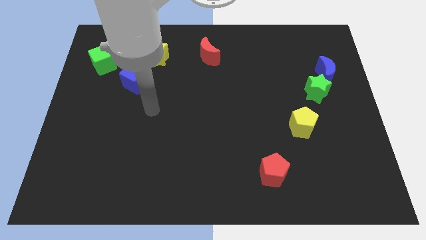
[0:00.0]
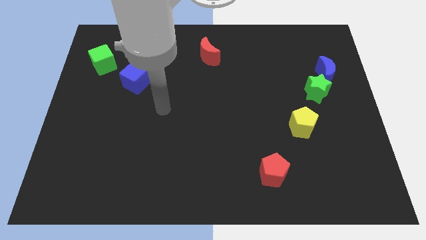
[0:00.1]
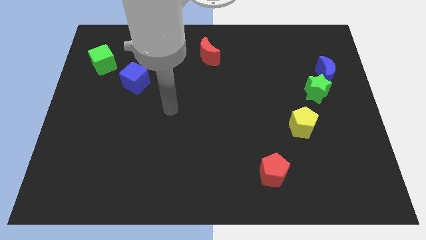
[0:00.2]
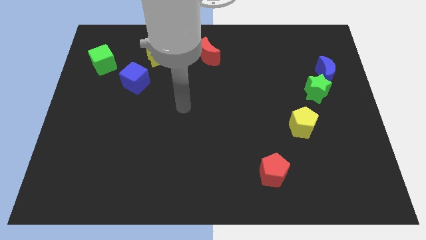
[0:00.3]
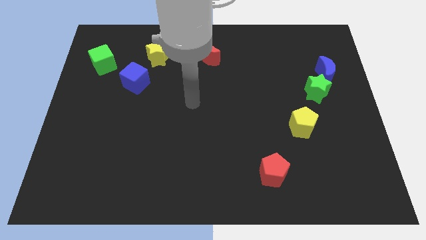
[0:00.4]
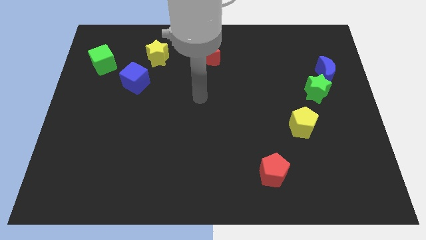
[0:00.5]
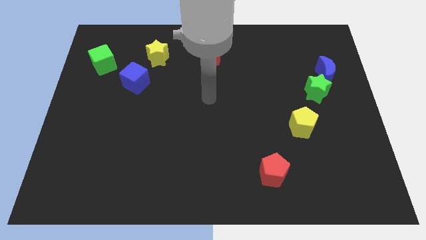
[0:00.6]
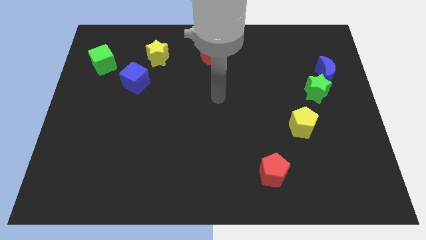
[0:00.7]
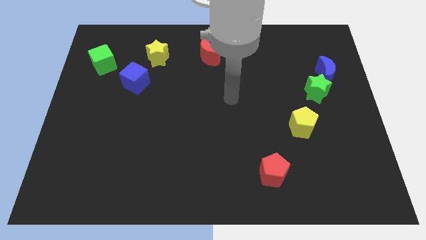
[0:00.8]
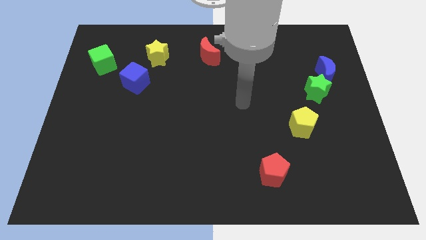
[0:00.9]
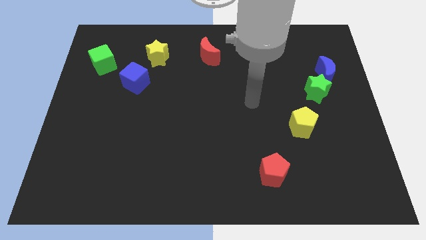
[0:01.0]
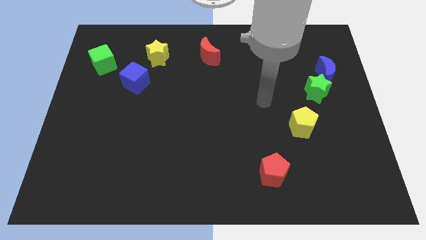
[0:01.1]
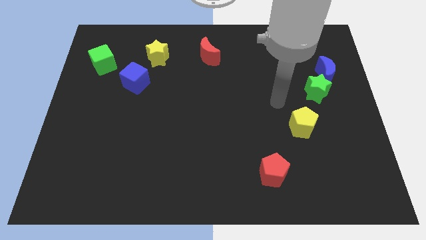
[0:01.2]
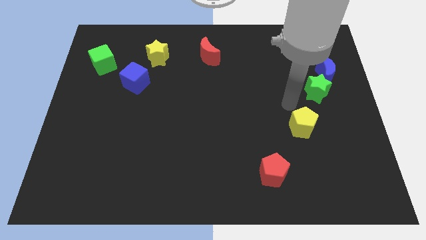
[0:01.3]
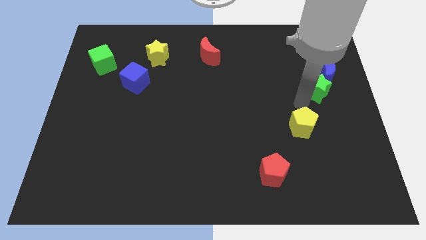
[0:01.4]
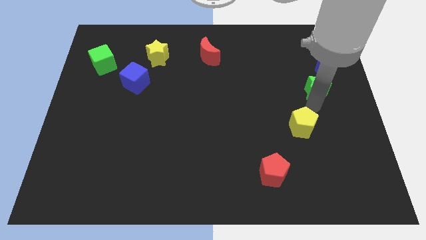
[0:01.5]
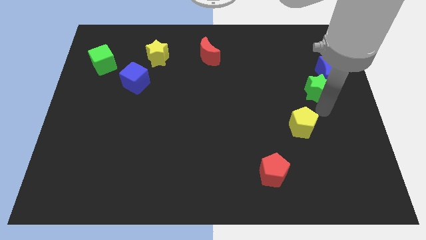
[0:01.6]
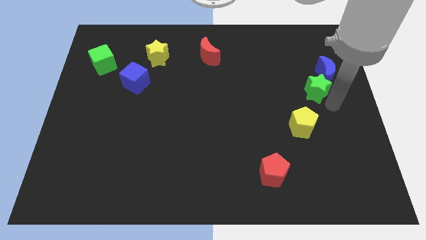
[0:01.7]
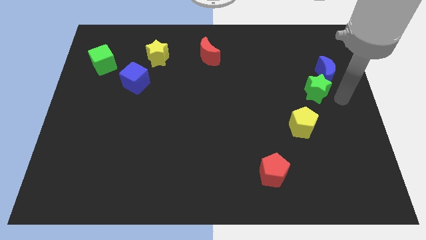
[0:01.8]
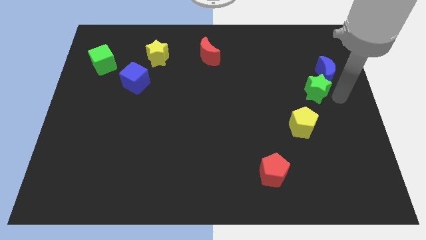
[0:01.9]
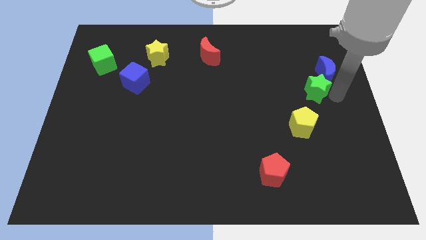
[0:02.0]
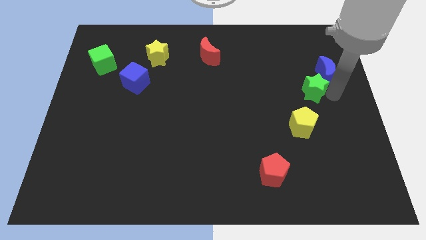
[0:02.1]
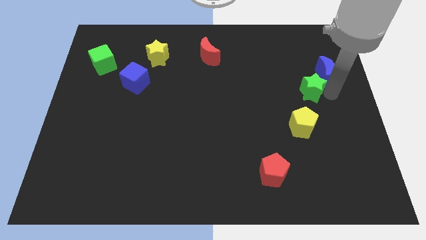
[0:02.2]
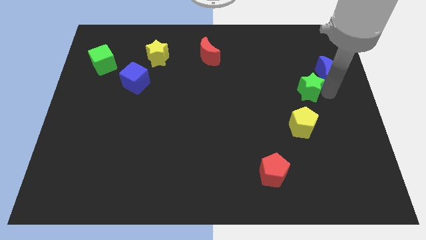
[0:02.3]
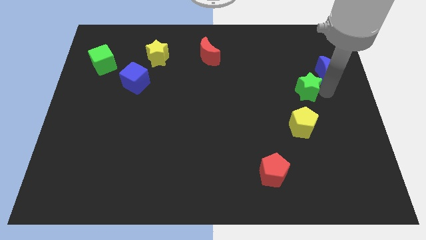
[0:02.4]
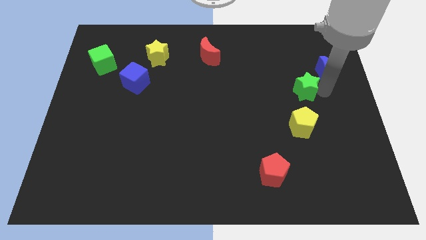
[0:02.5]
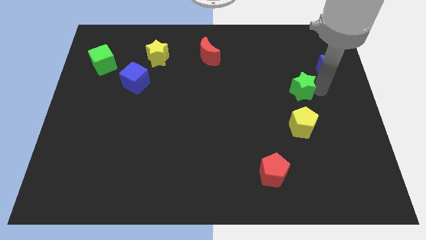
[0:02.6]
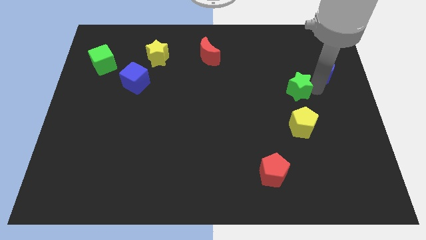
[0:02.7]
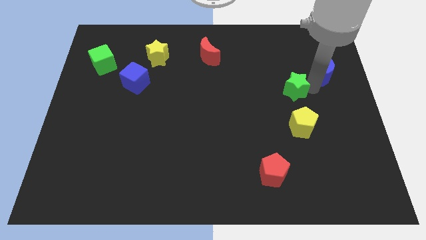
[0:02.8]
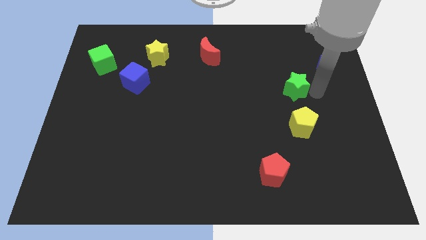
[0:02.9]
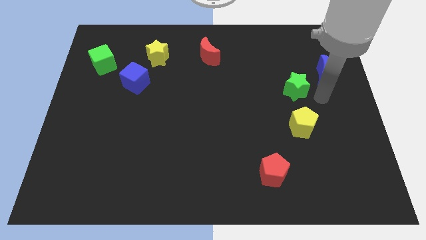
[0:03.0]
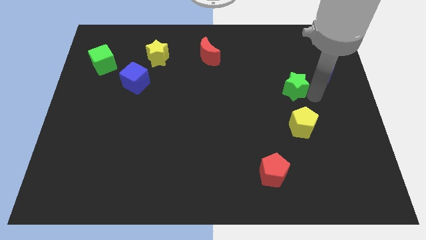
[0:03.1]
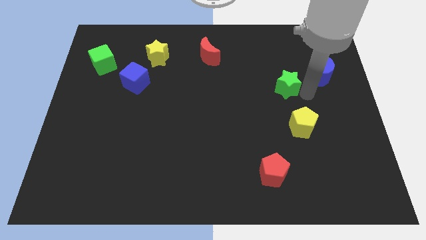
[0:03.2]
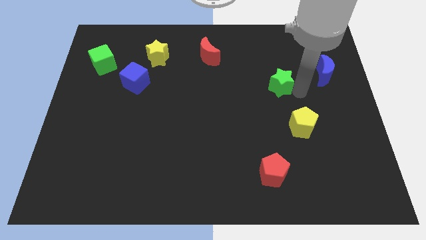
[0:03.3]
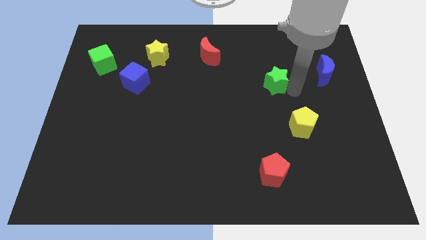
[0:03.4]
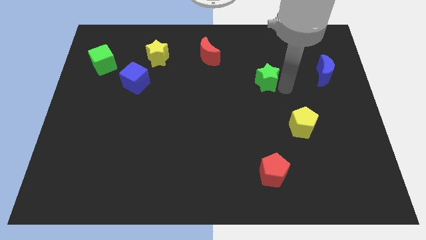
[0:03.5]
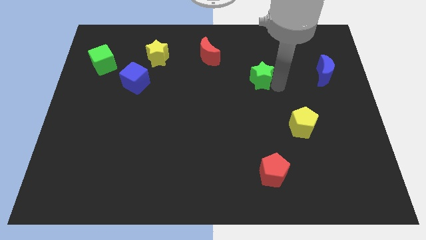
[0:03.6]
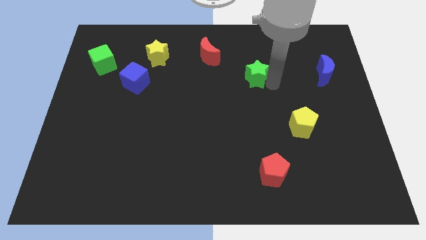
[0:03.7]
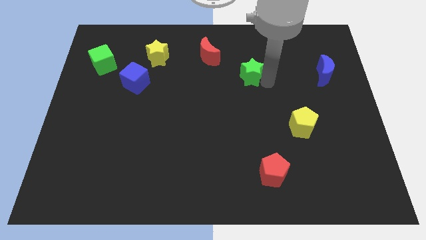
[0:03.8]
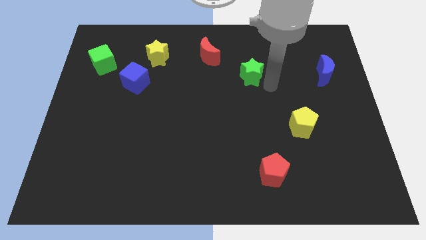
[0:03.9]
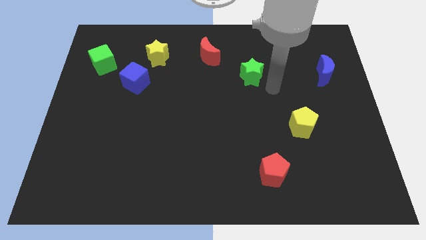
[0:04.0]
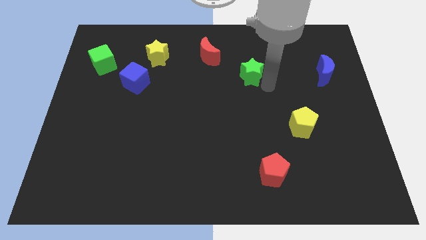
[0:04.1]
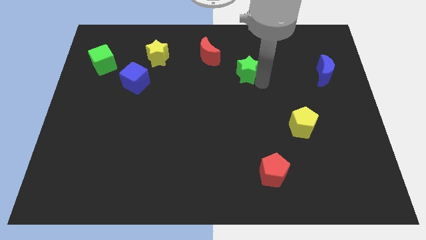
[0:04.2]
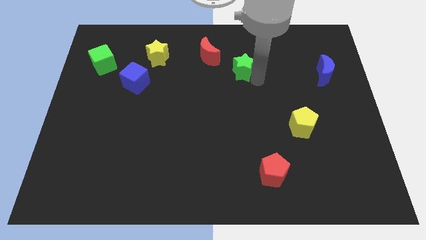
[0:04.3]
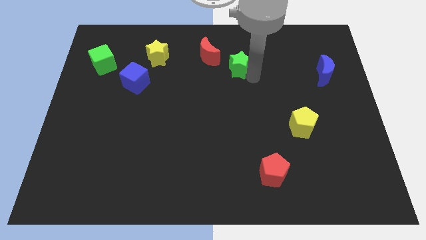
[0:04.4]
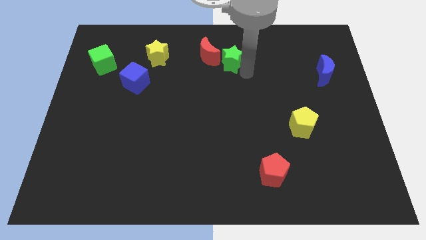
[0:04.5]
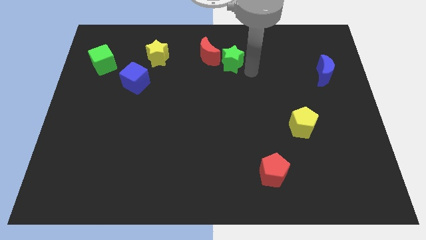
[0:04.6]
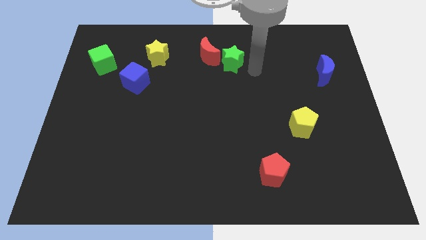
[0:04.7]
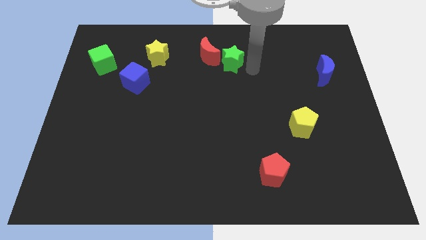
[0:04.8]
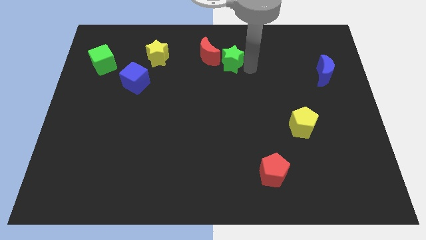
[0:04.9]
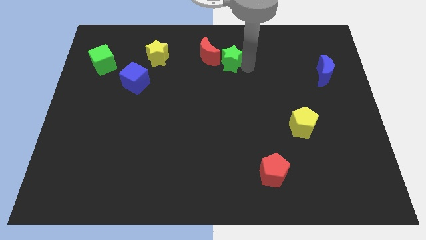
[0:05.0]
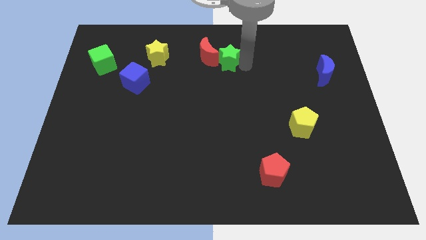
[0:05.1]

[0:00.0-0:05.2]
slide the green star close to the red moon

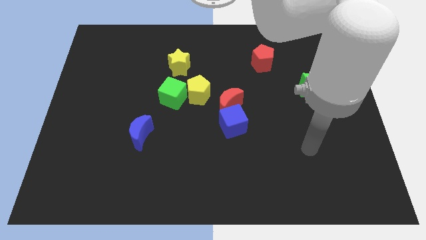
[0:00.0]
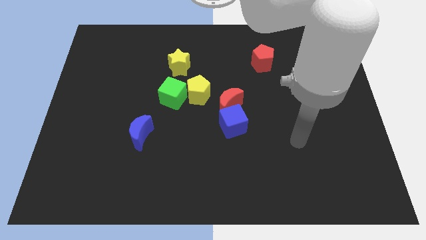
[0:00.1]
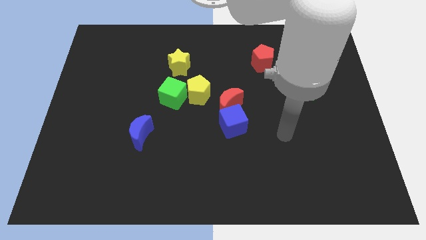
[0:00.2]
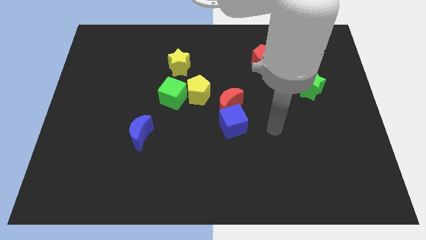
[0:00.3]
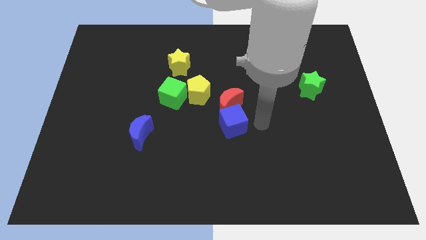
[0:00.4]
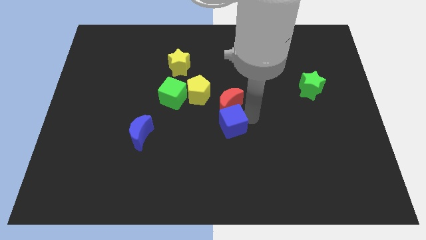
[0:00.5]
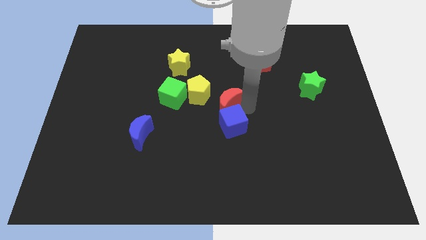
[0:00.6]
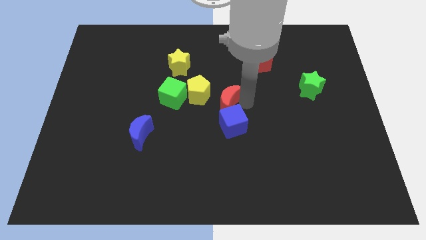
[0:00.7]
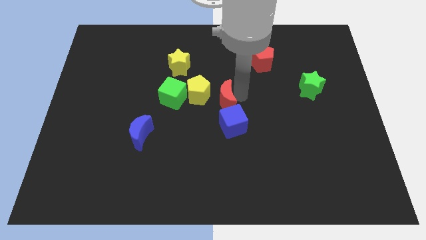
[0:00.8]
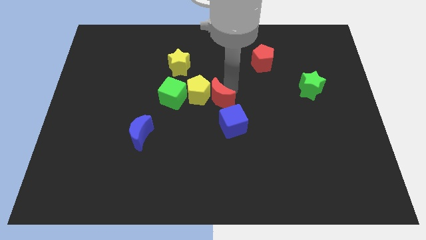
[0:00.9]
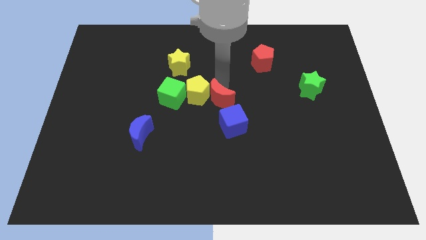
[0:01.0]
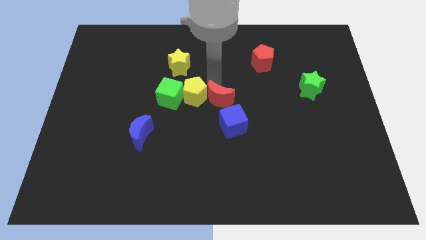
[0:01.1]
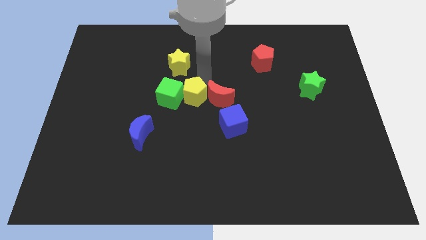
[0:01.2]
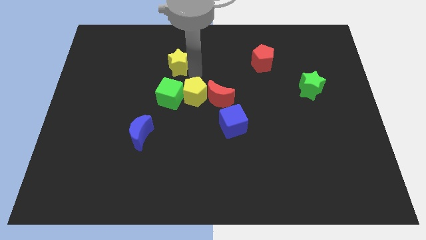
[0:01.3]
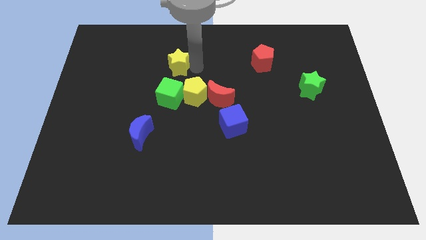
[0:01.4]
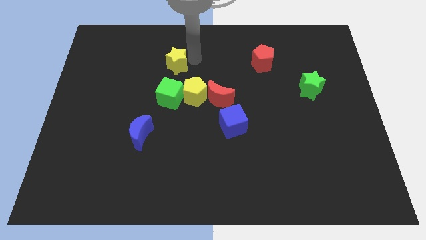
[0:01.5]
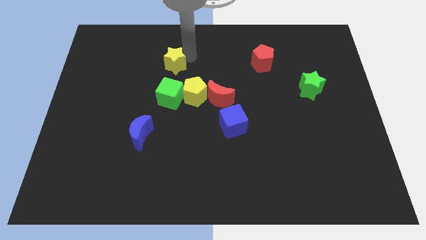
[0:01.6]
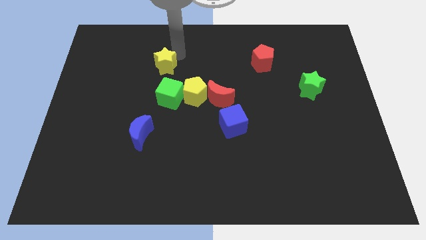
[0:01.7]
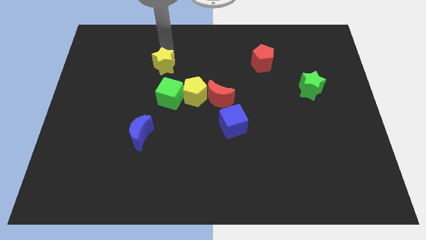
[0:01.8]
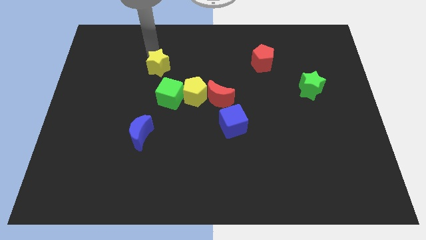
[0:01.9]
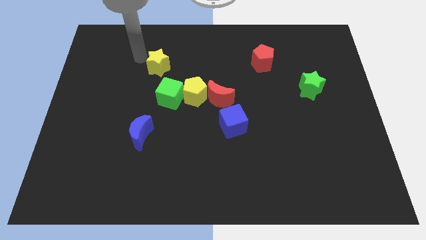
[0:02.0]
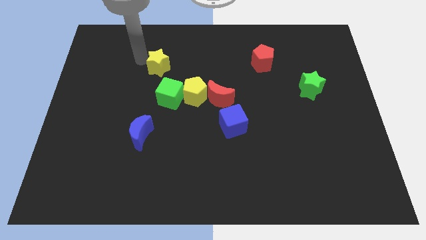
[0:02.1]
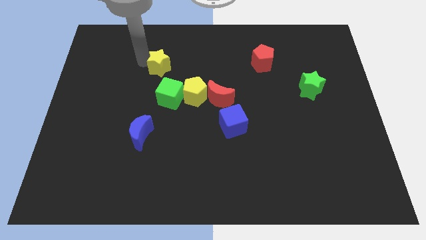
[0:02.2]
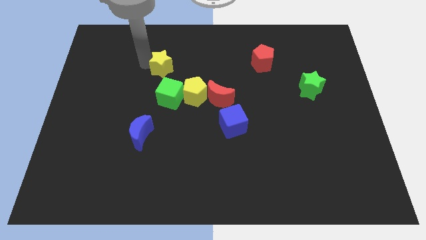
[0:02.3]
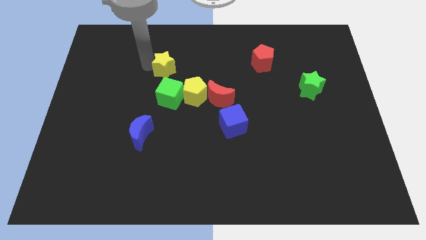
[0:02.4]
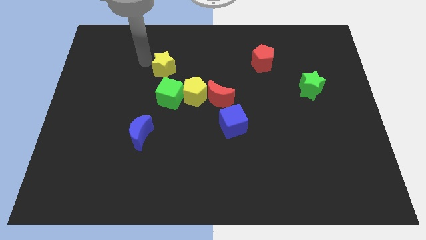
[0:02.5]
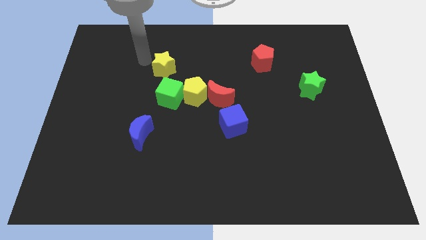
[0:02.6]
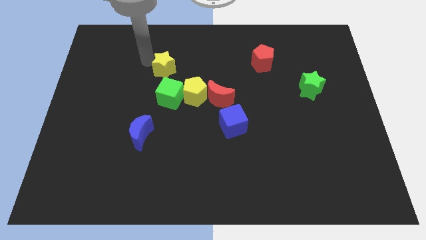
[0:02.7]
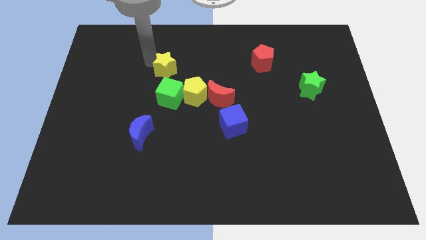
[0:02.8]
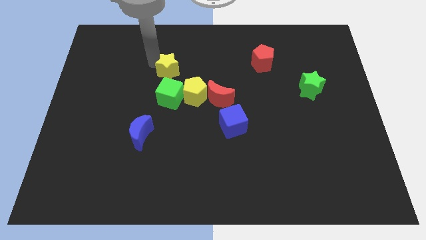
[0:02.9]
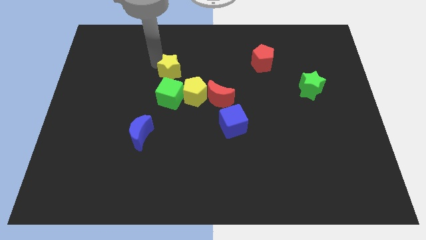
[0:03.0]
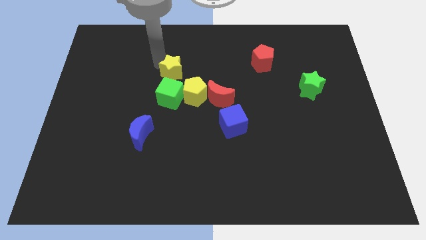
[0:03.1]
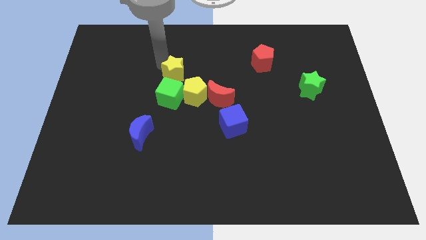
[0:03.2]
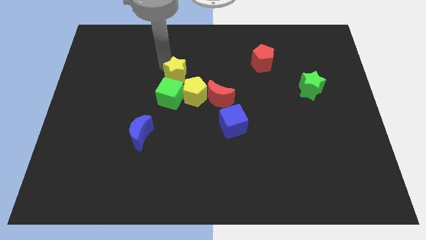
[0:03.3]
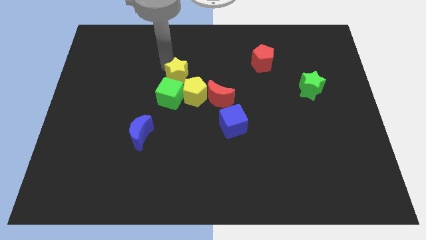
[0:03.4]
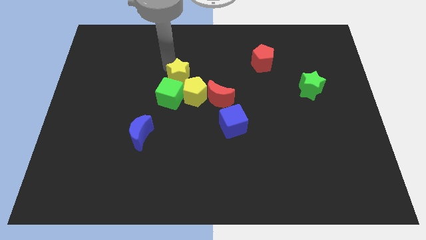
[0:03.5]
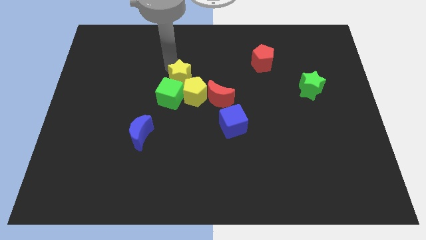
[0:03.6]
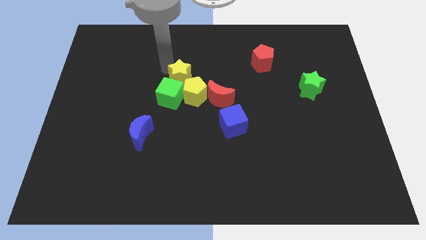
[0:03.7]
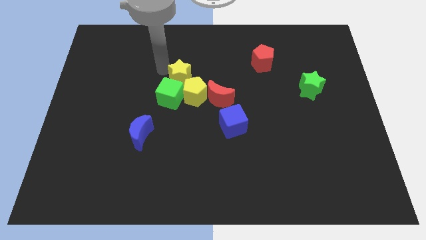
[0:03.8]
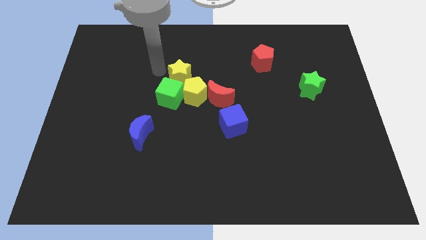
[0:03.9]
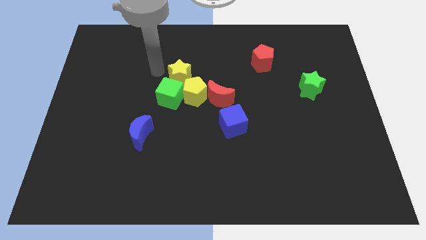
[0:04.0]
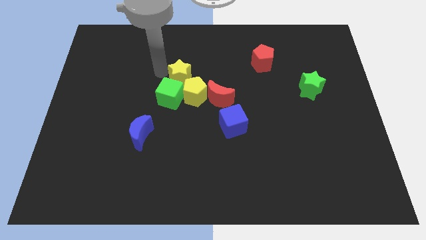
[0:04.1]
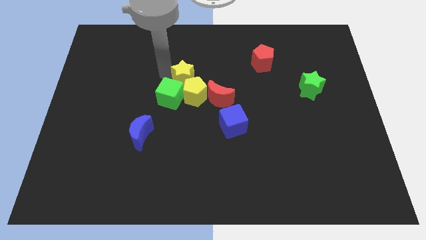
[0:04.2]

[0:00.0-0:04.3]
slide the yellow star to the yellow pentagon
